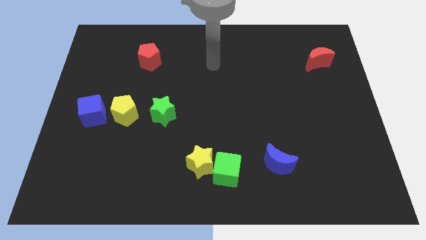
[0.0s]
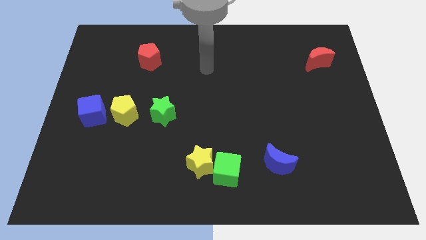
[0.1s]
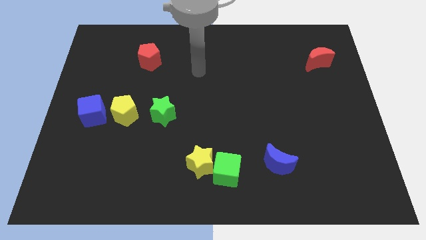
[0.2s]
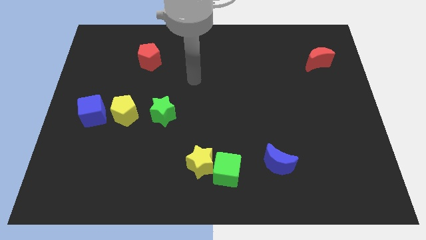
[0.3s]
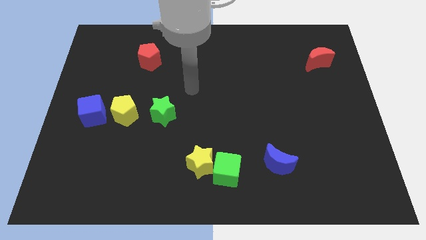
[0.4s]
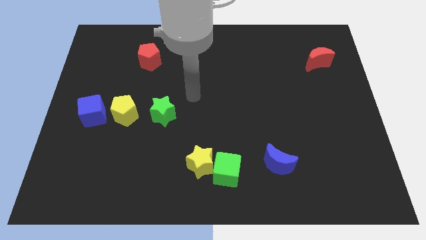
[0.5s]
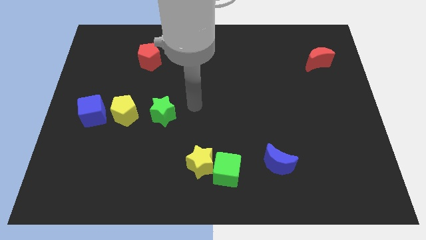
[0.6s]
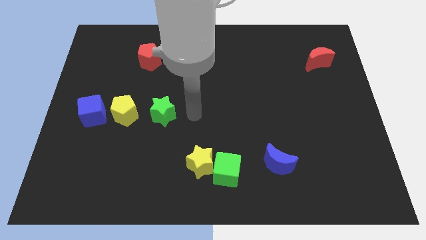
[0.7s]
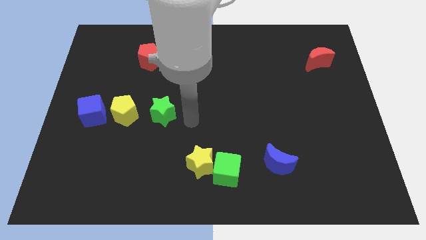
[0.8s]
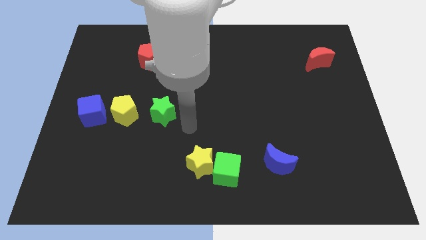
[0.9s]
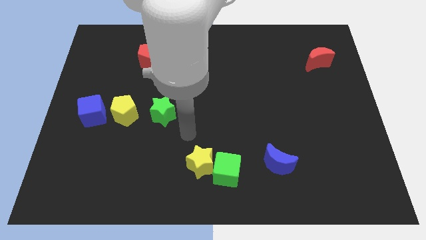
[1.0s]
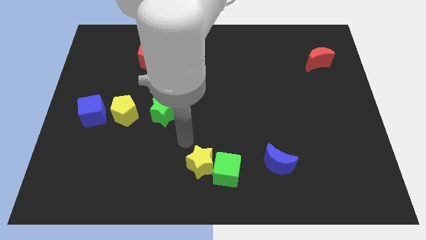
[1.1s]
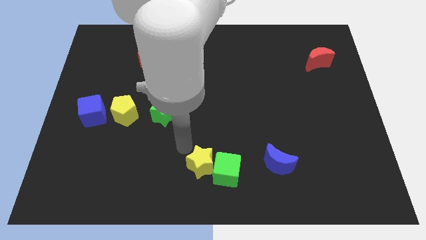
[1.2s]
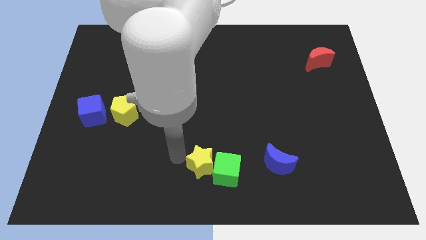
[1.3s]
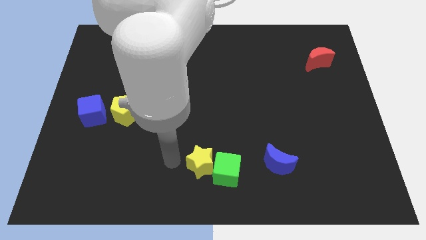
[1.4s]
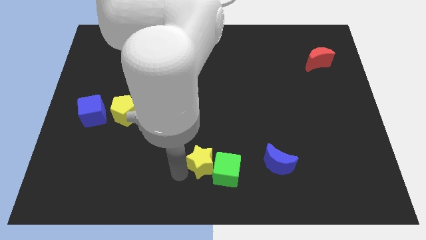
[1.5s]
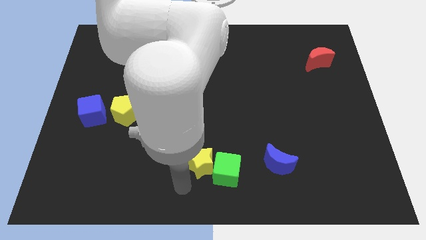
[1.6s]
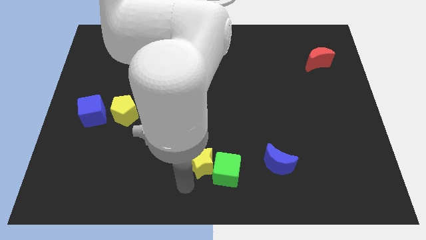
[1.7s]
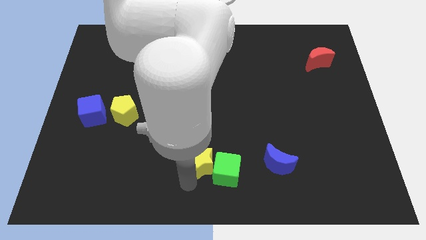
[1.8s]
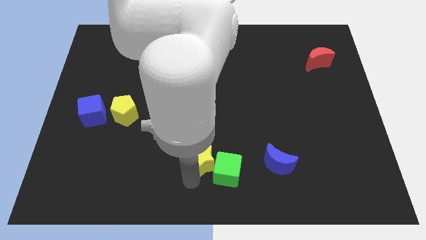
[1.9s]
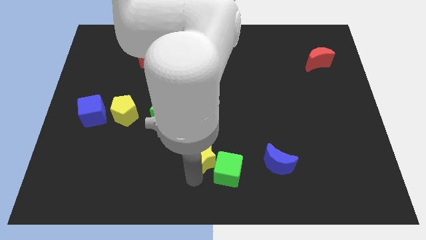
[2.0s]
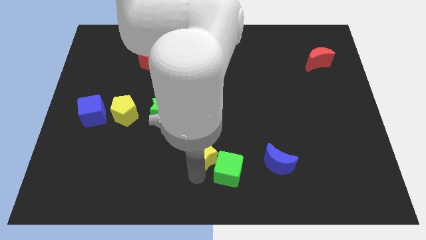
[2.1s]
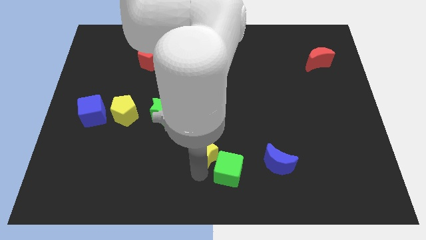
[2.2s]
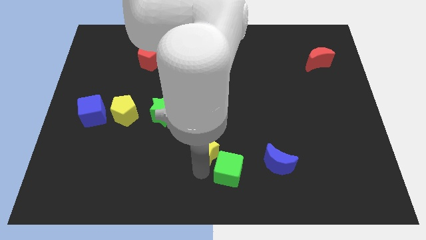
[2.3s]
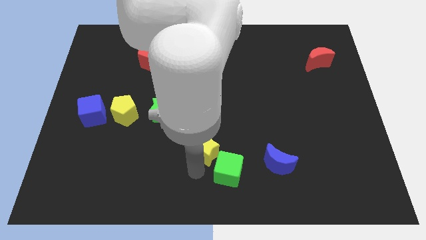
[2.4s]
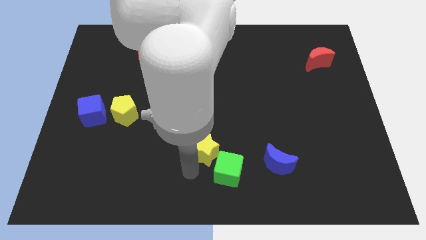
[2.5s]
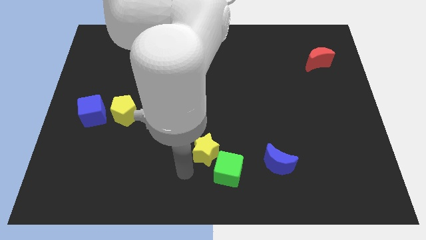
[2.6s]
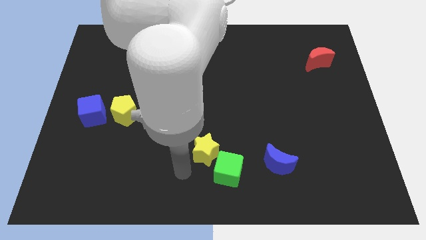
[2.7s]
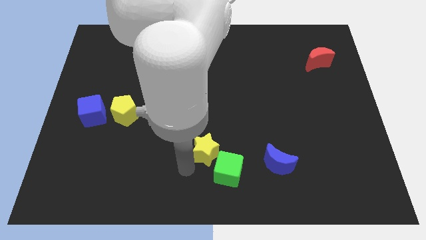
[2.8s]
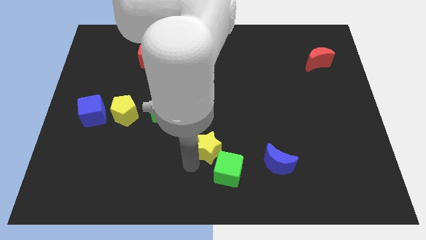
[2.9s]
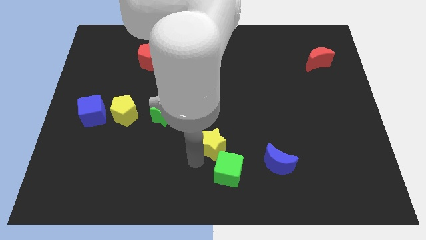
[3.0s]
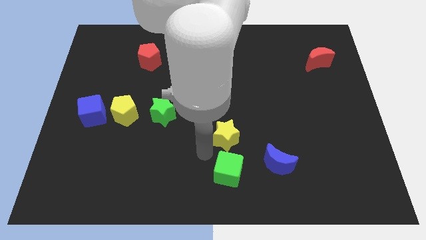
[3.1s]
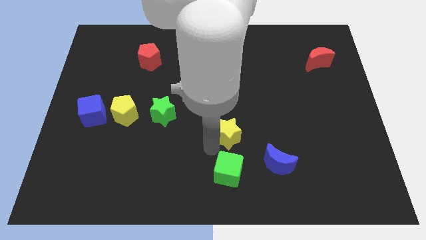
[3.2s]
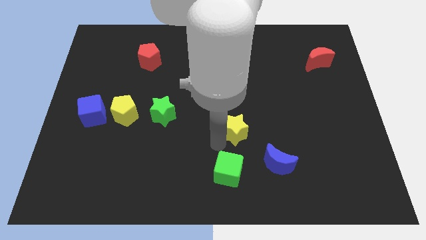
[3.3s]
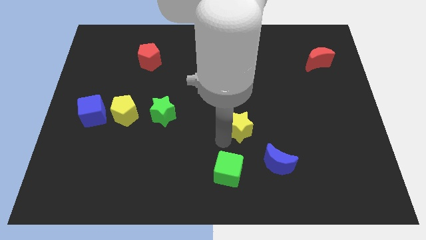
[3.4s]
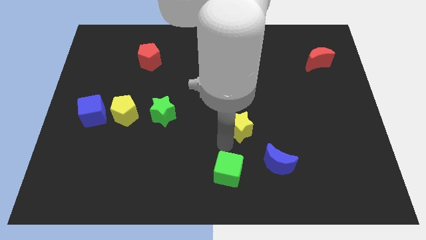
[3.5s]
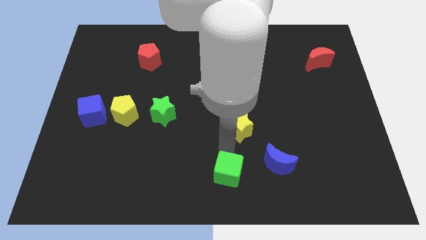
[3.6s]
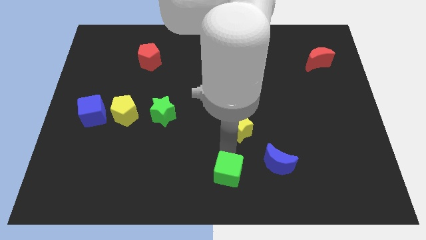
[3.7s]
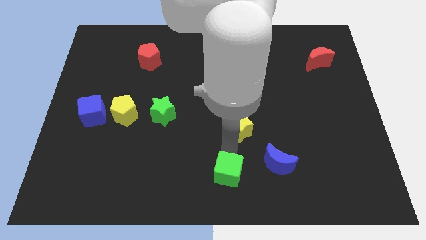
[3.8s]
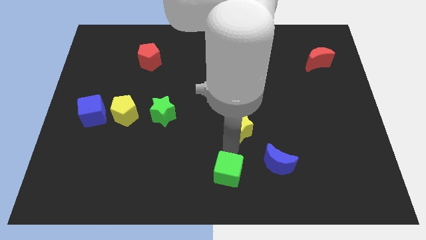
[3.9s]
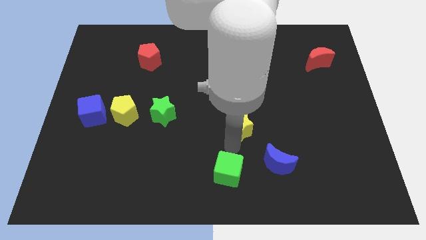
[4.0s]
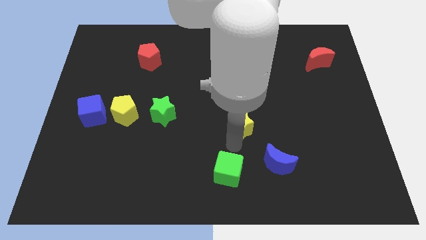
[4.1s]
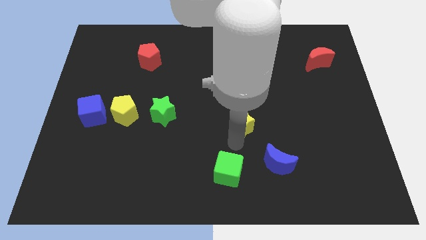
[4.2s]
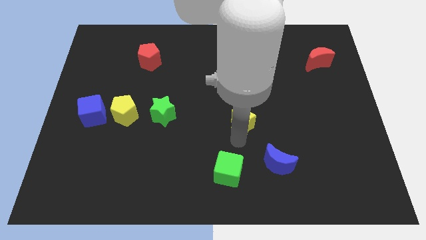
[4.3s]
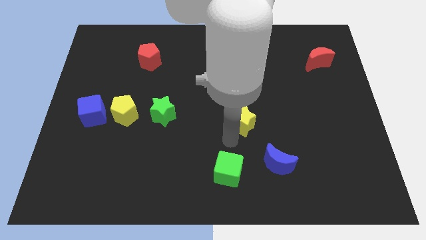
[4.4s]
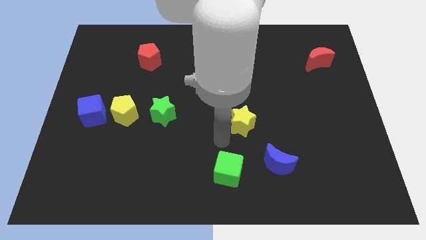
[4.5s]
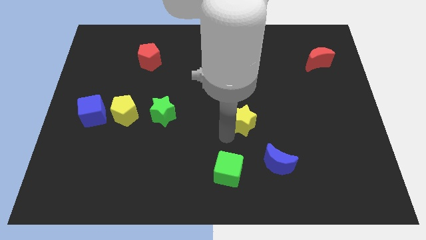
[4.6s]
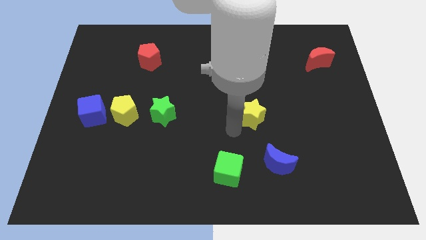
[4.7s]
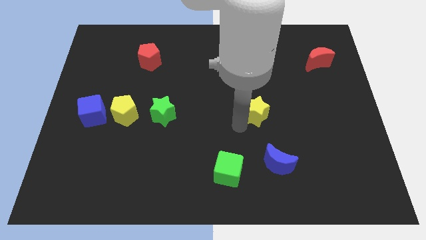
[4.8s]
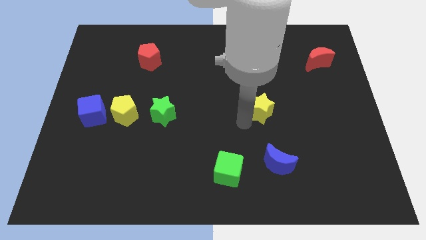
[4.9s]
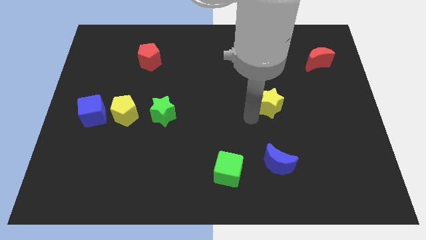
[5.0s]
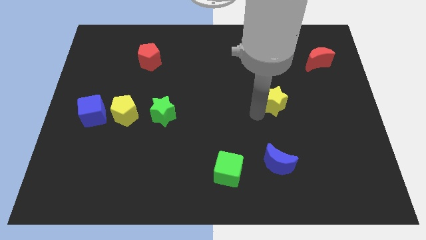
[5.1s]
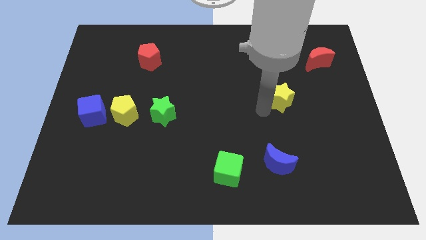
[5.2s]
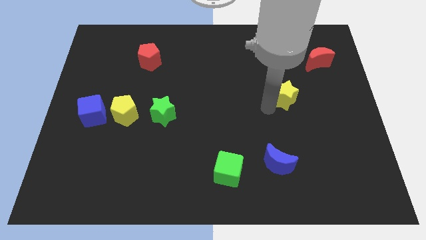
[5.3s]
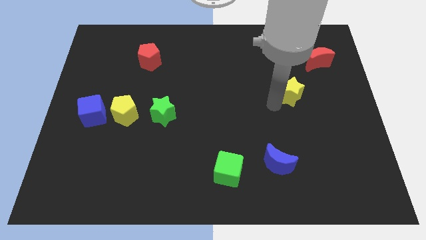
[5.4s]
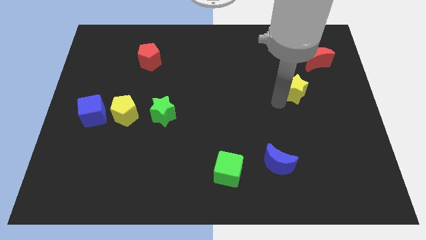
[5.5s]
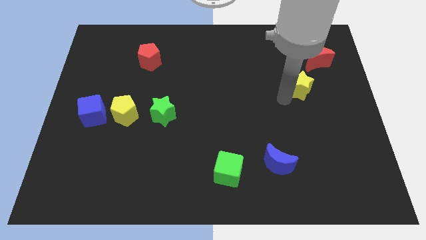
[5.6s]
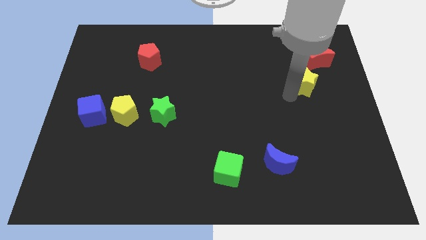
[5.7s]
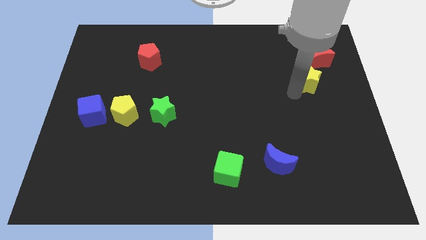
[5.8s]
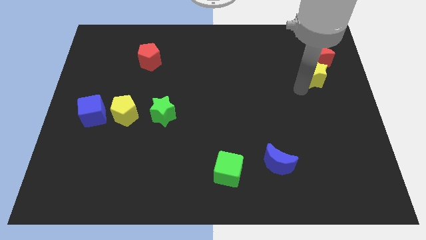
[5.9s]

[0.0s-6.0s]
push the yellow star next to the red moon

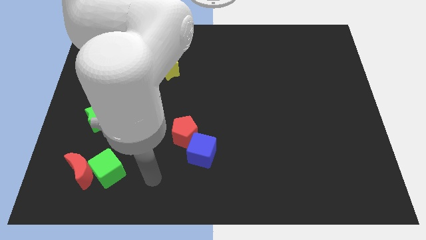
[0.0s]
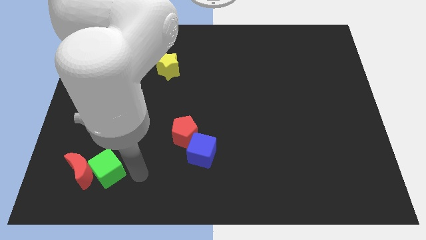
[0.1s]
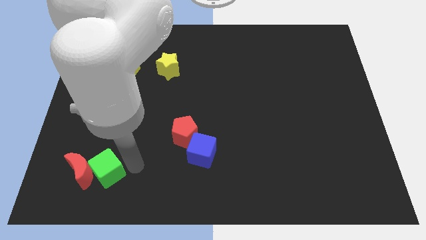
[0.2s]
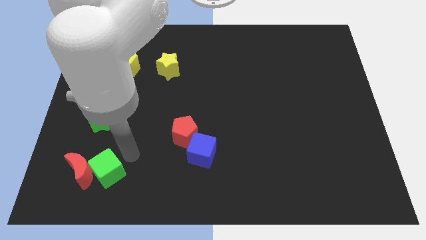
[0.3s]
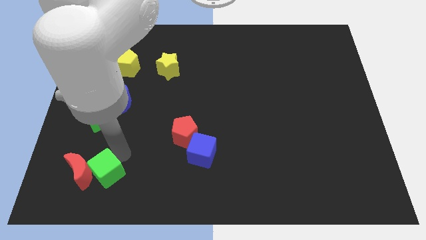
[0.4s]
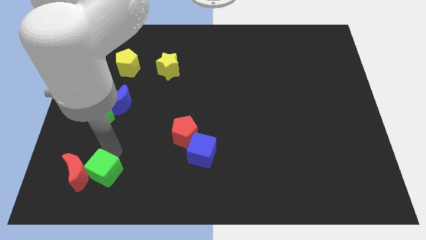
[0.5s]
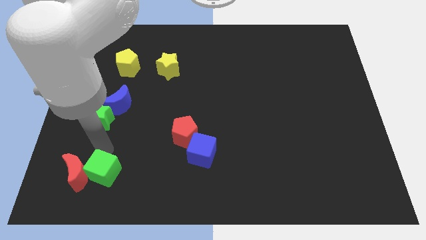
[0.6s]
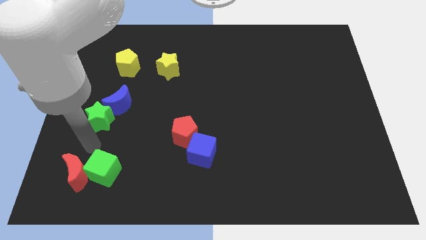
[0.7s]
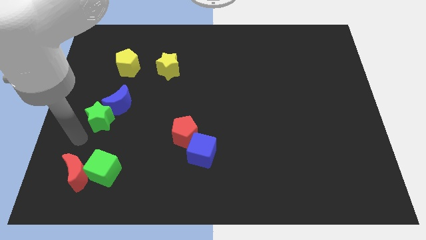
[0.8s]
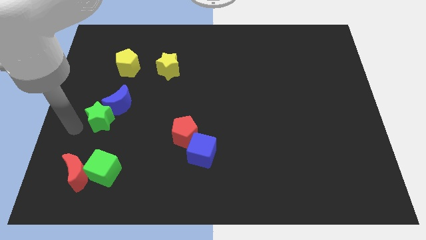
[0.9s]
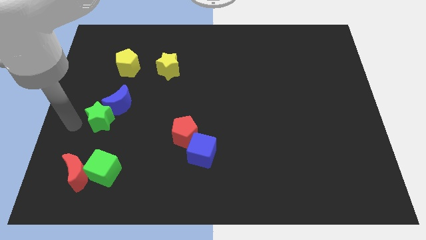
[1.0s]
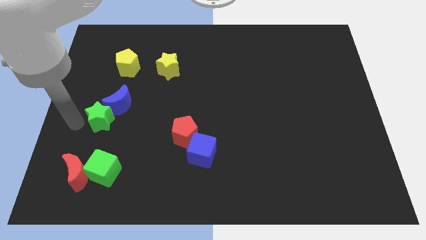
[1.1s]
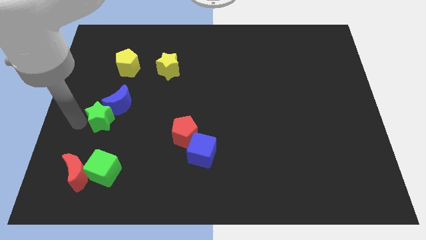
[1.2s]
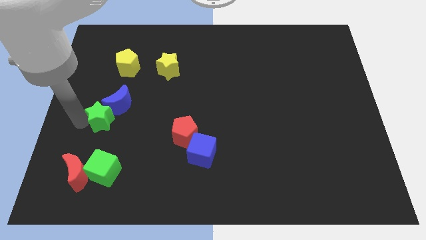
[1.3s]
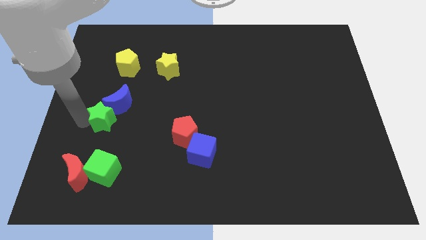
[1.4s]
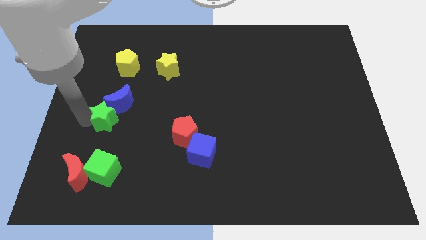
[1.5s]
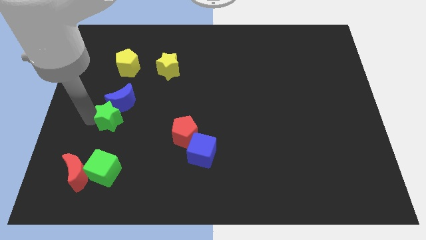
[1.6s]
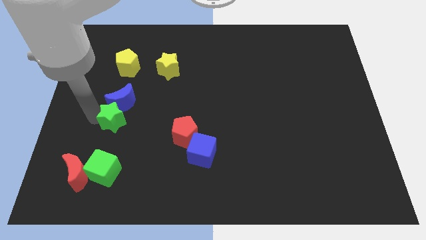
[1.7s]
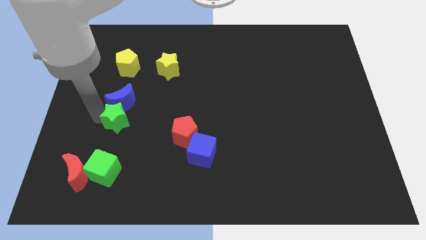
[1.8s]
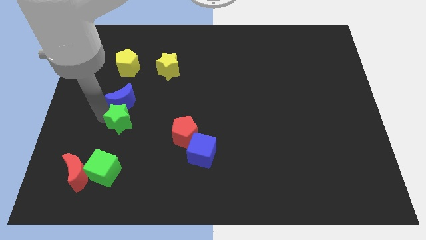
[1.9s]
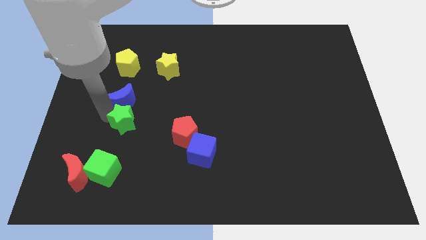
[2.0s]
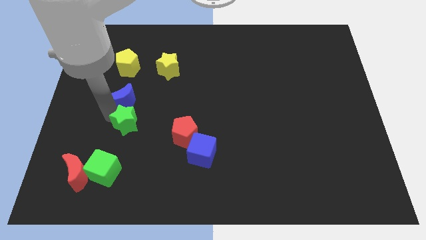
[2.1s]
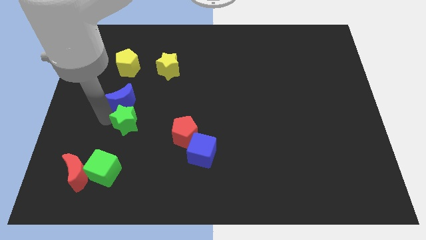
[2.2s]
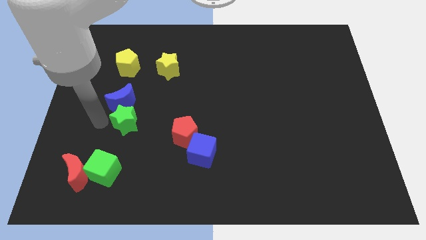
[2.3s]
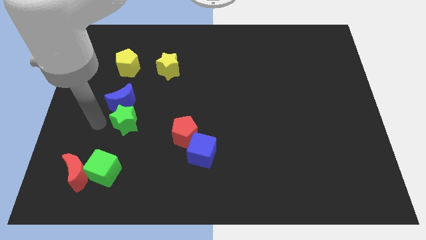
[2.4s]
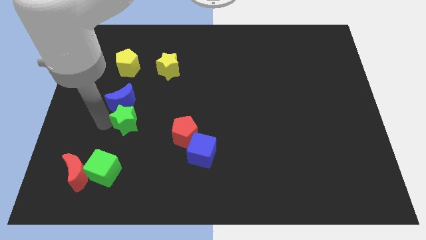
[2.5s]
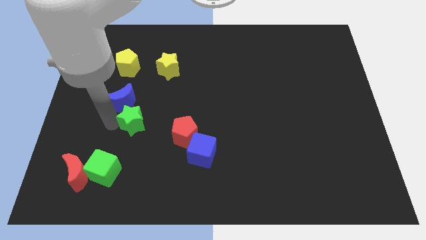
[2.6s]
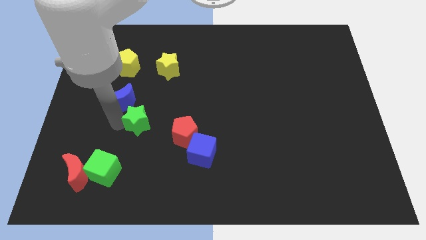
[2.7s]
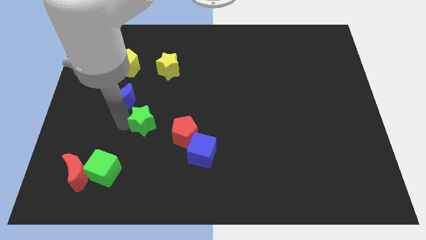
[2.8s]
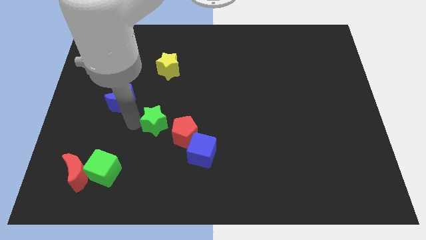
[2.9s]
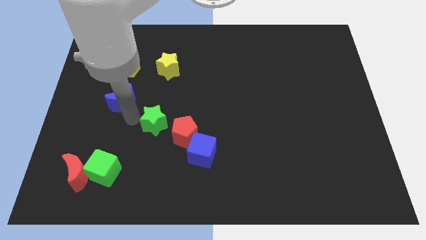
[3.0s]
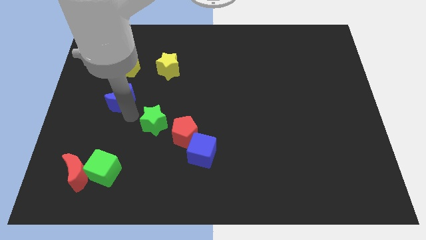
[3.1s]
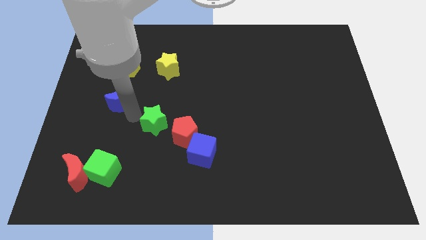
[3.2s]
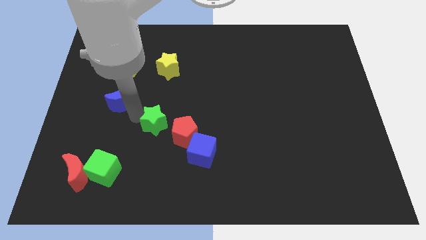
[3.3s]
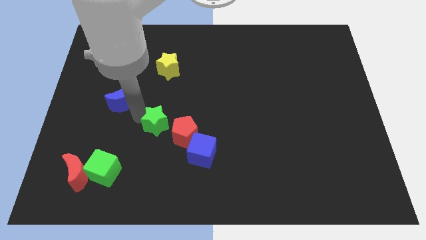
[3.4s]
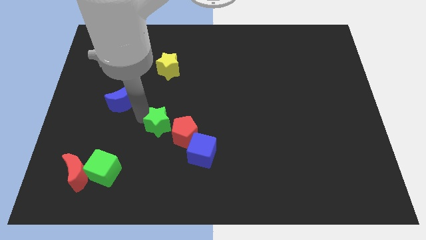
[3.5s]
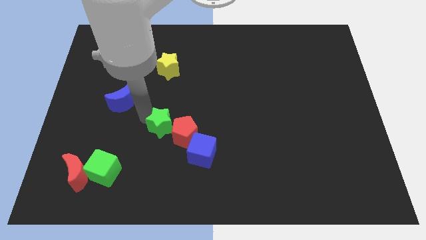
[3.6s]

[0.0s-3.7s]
put the green star close to the red pentagon
